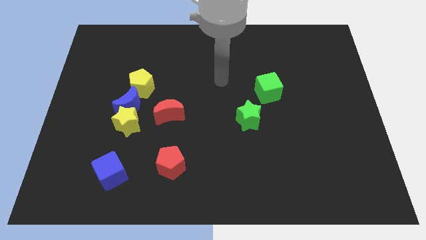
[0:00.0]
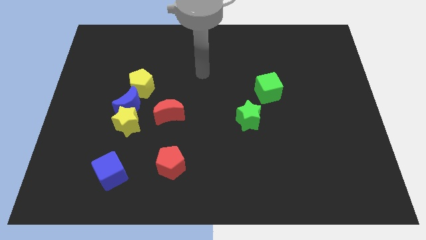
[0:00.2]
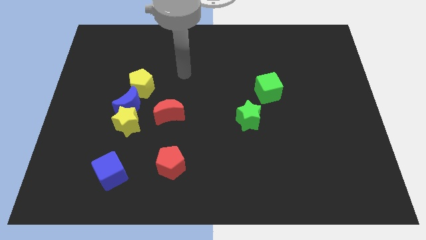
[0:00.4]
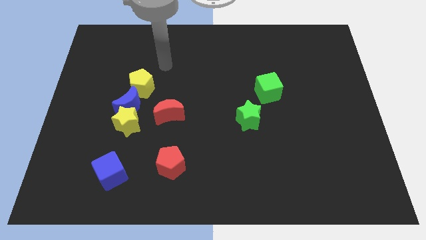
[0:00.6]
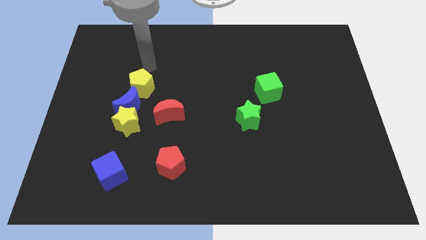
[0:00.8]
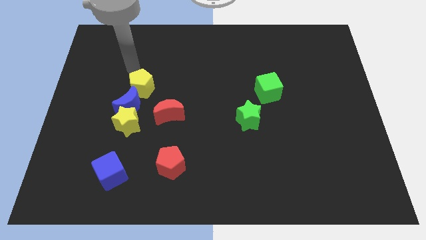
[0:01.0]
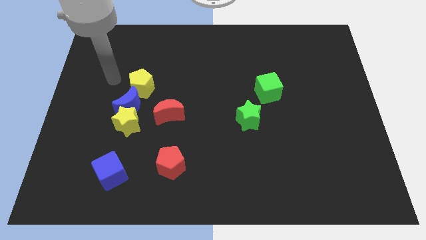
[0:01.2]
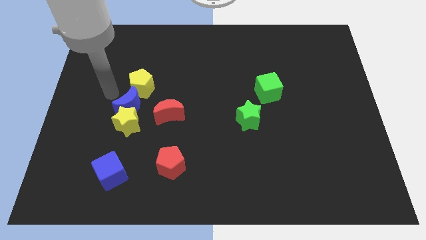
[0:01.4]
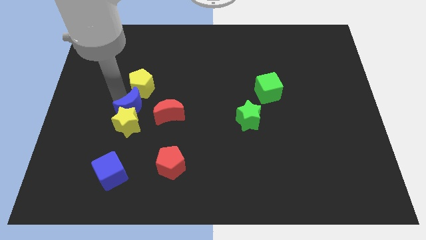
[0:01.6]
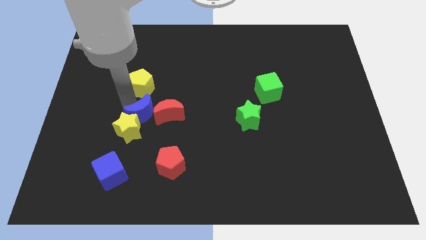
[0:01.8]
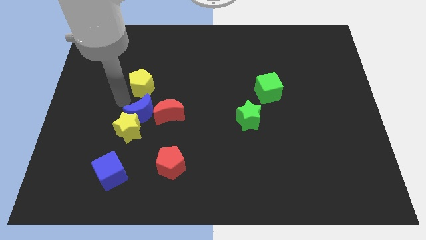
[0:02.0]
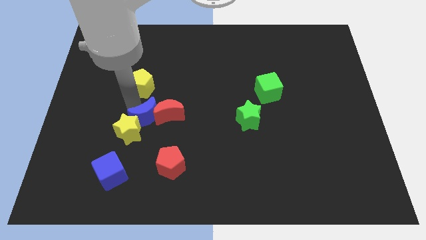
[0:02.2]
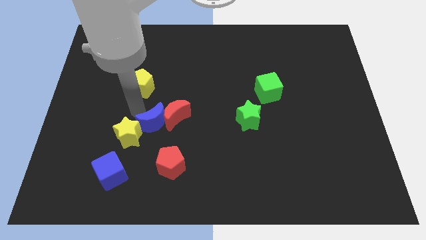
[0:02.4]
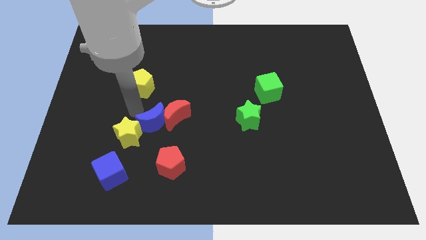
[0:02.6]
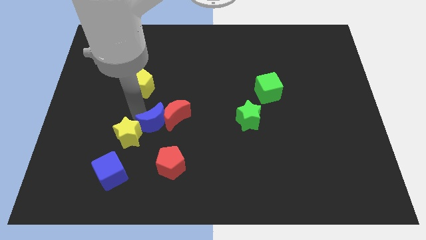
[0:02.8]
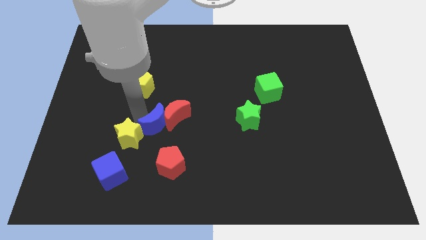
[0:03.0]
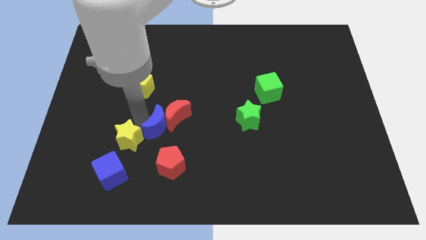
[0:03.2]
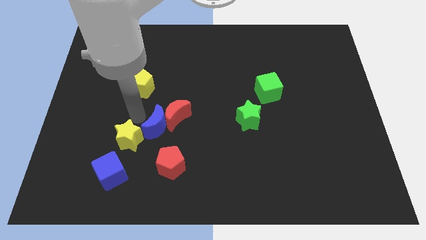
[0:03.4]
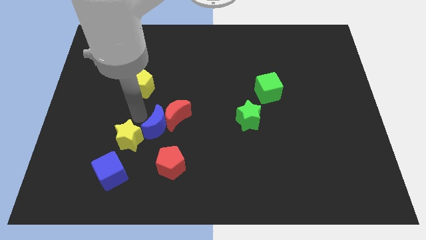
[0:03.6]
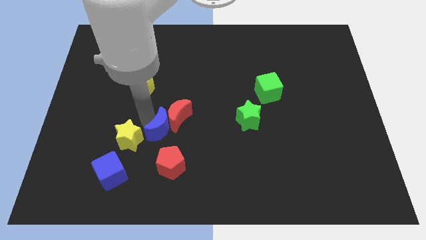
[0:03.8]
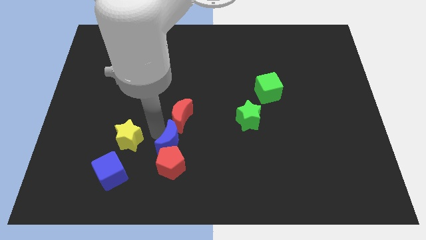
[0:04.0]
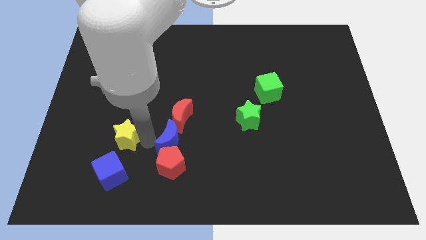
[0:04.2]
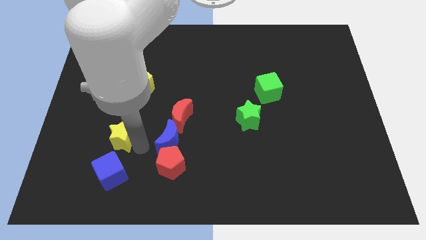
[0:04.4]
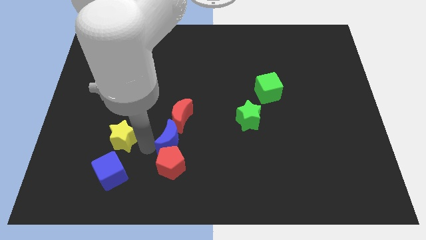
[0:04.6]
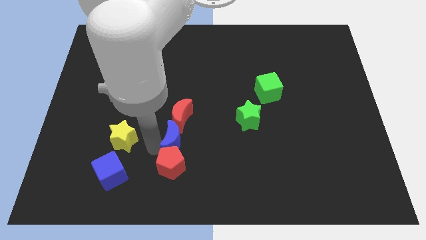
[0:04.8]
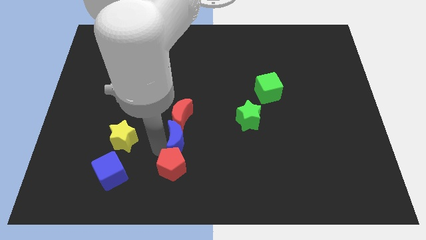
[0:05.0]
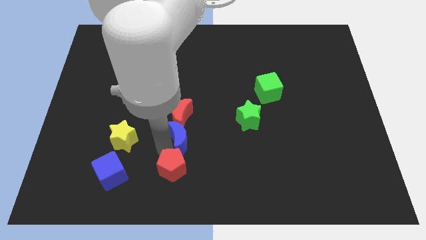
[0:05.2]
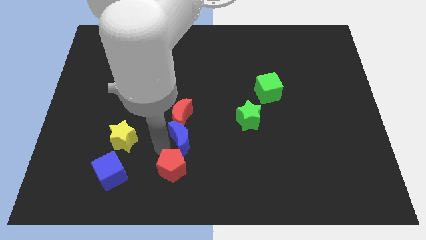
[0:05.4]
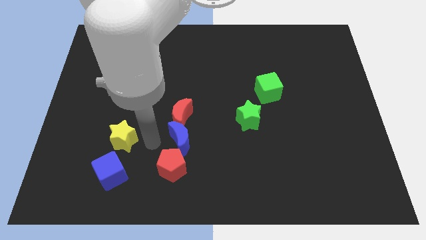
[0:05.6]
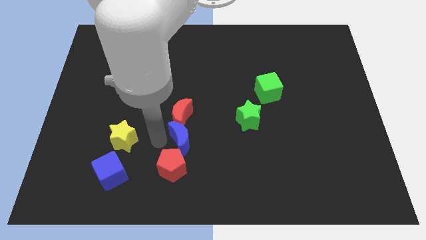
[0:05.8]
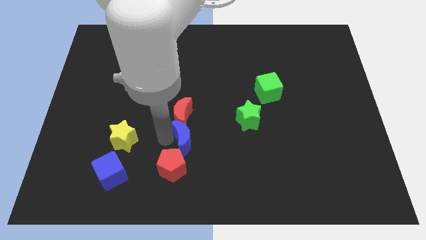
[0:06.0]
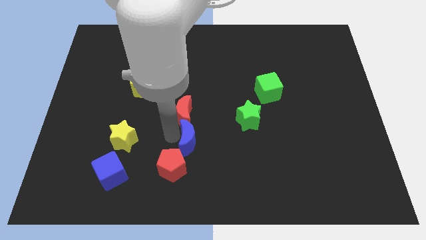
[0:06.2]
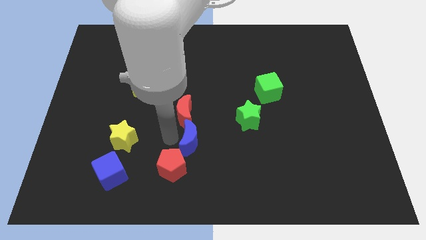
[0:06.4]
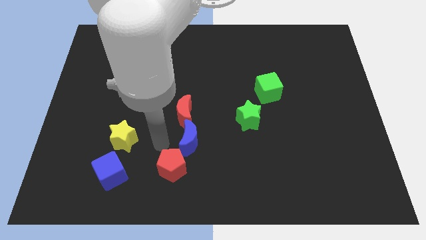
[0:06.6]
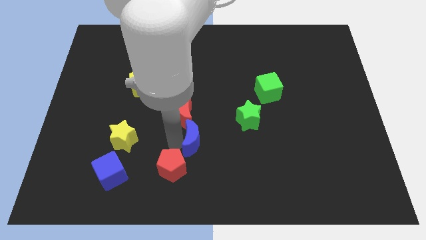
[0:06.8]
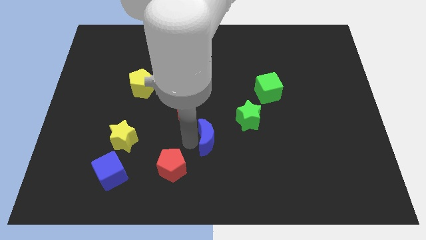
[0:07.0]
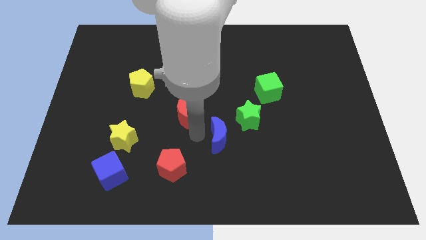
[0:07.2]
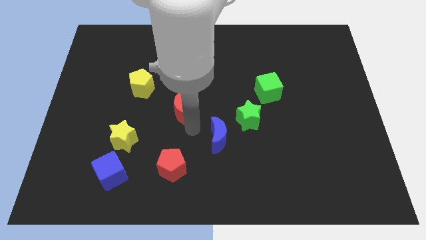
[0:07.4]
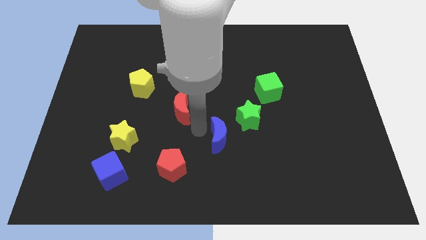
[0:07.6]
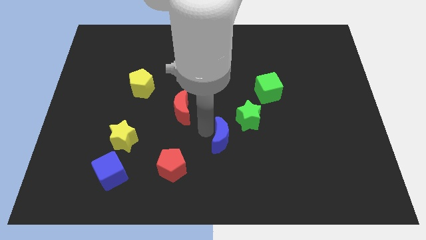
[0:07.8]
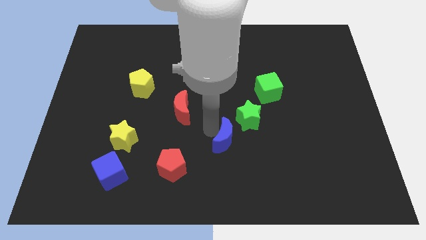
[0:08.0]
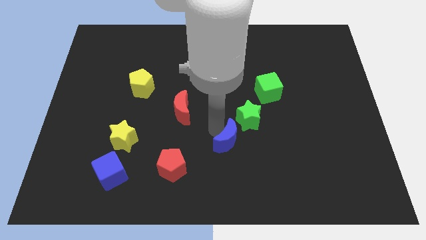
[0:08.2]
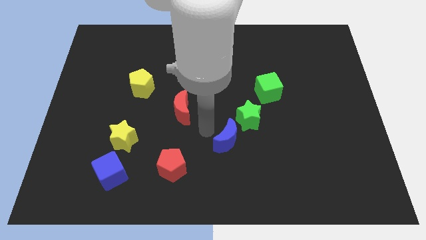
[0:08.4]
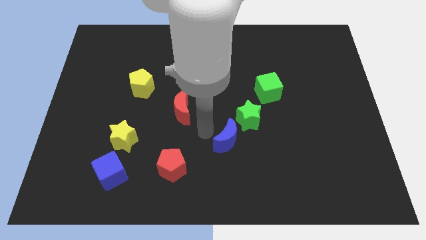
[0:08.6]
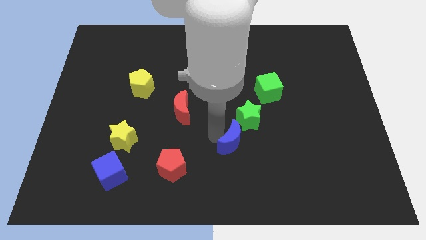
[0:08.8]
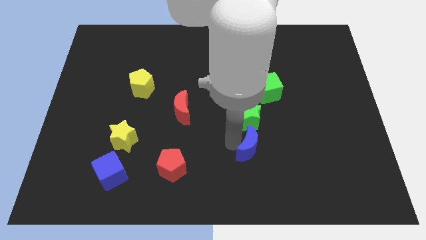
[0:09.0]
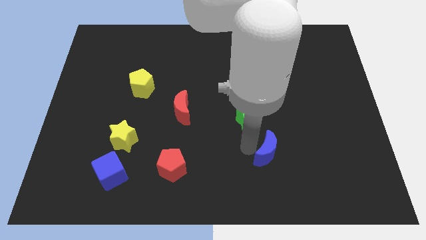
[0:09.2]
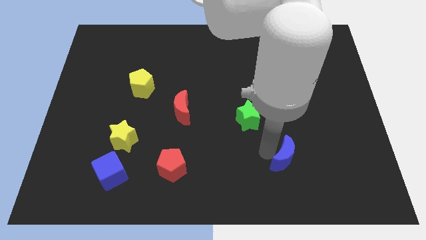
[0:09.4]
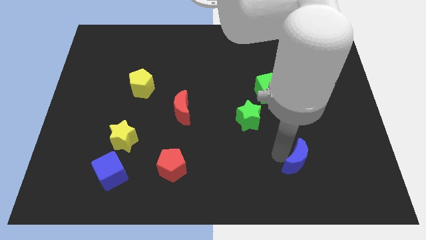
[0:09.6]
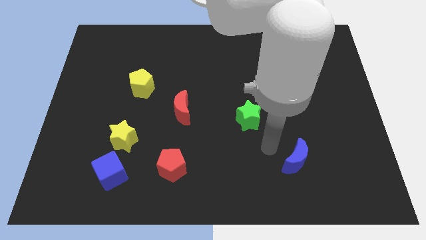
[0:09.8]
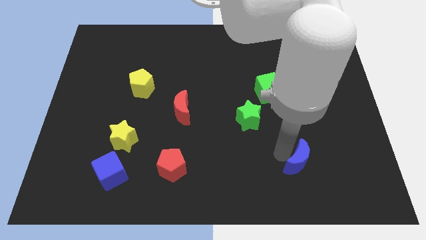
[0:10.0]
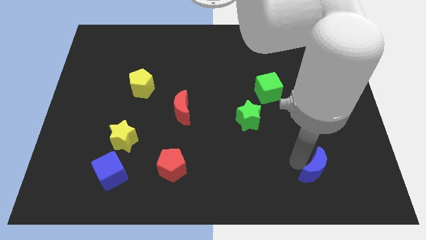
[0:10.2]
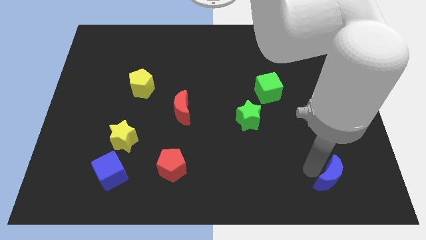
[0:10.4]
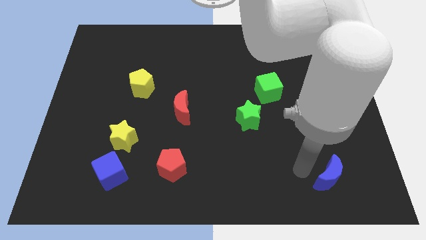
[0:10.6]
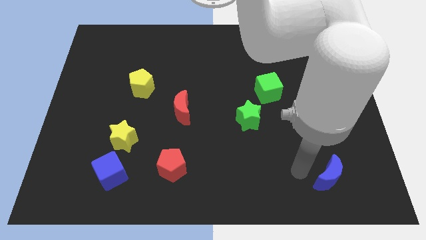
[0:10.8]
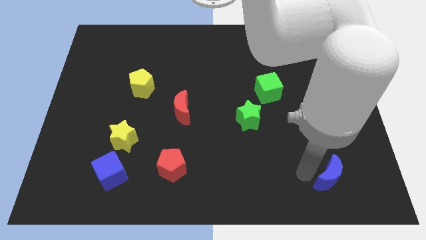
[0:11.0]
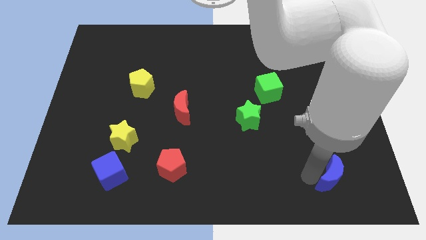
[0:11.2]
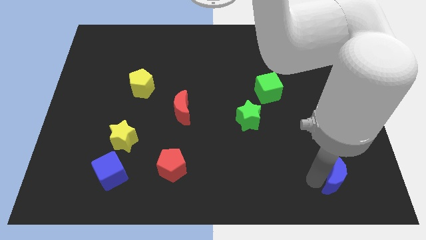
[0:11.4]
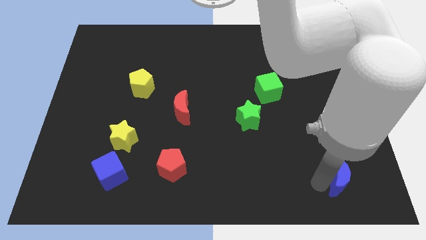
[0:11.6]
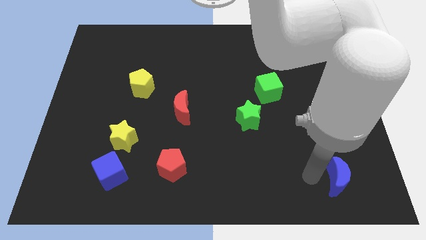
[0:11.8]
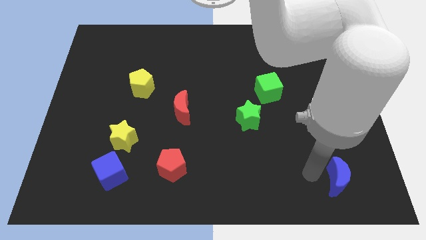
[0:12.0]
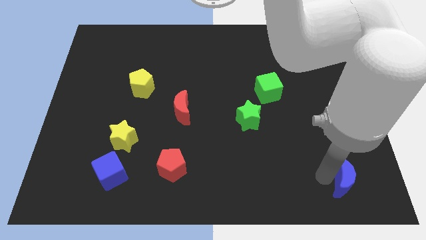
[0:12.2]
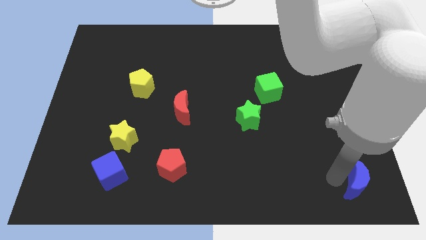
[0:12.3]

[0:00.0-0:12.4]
slide the blue moon to the bottom right

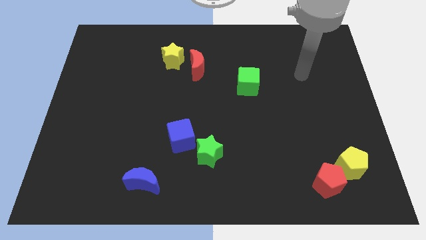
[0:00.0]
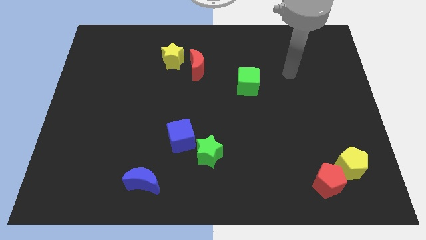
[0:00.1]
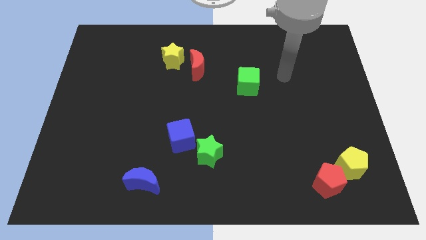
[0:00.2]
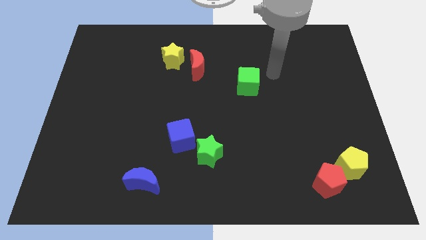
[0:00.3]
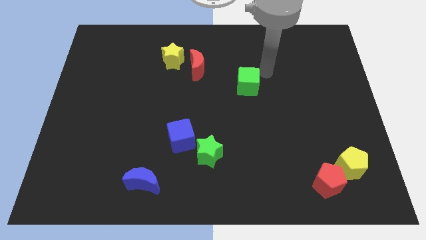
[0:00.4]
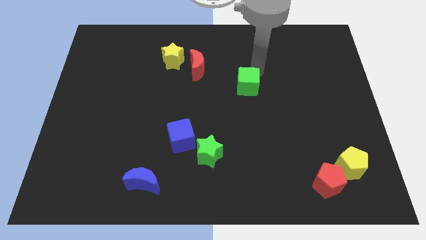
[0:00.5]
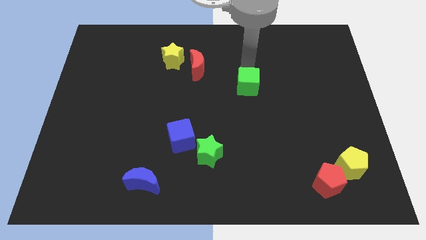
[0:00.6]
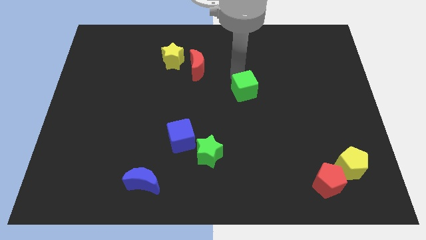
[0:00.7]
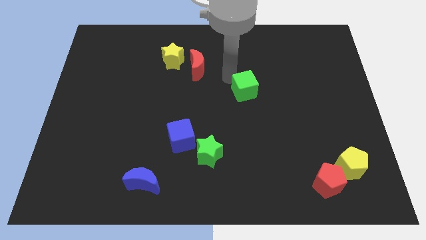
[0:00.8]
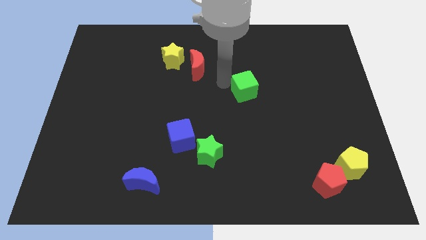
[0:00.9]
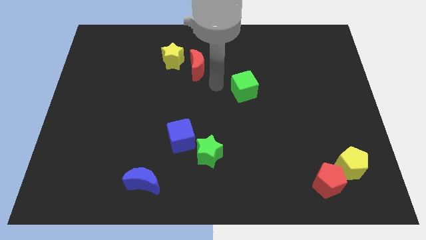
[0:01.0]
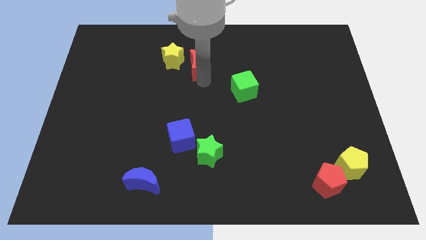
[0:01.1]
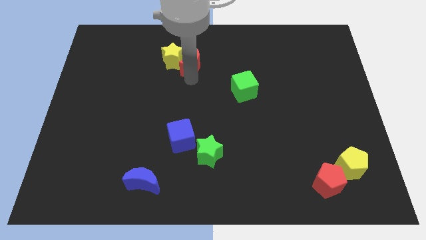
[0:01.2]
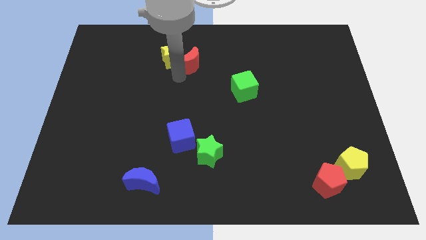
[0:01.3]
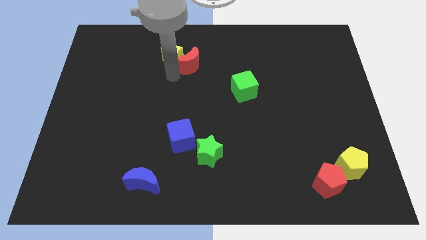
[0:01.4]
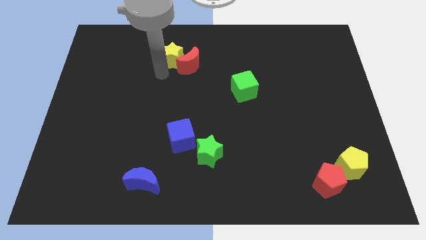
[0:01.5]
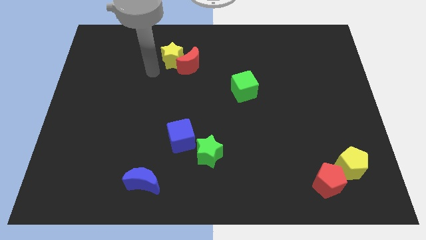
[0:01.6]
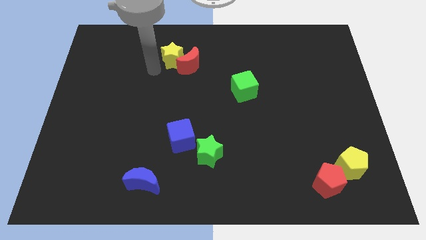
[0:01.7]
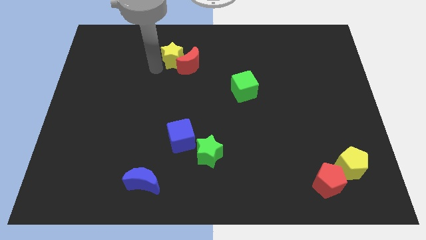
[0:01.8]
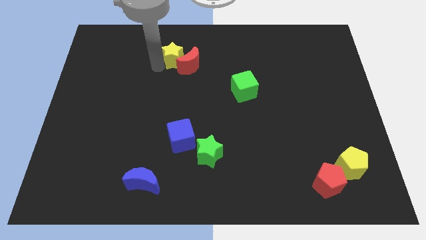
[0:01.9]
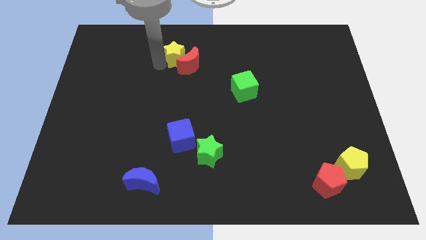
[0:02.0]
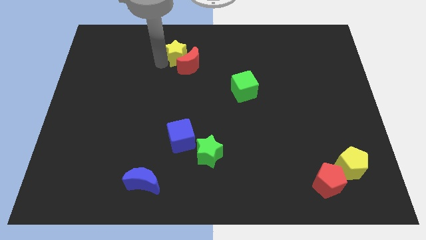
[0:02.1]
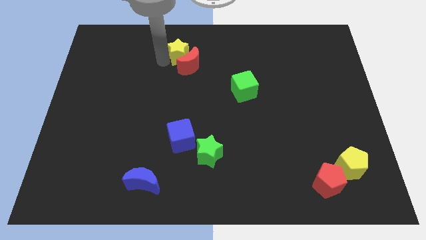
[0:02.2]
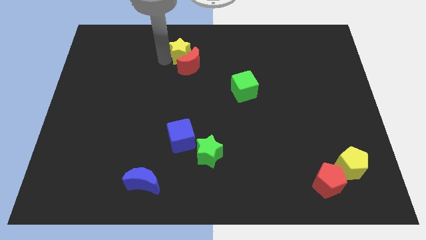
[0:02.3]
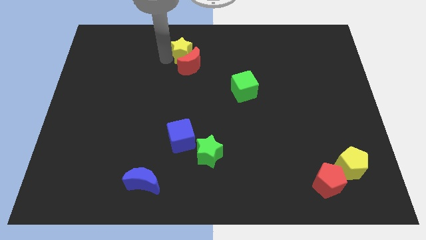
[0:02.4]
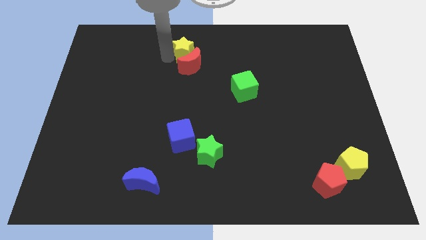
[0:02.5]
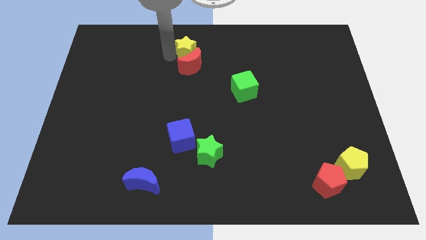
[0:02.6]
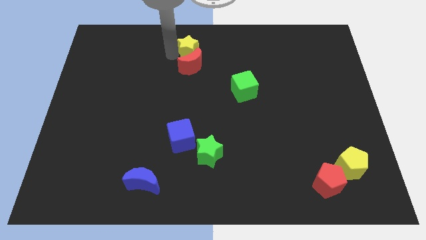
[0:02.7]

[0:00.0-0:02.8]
put the yellow star to the top side
